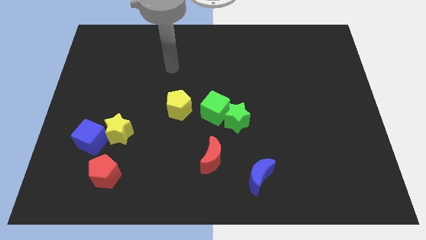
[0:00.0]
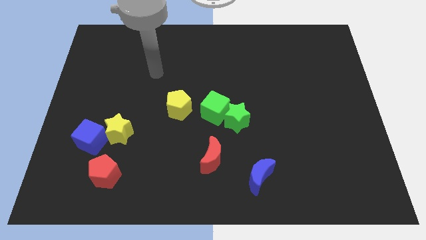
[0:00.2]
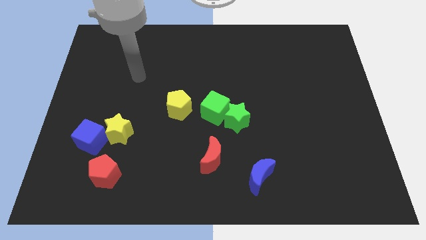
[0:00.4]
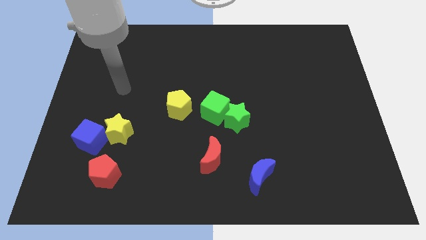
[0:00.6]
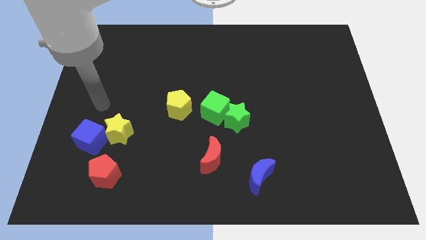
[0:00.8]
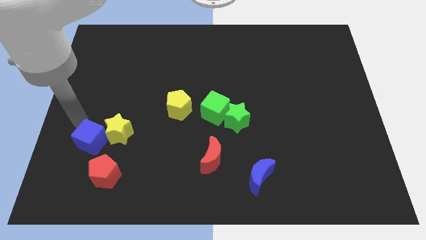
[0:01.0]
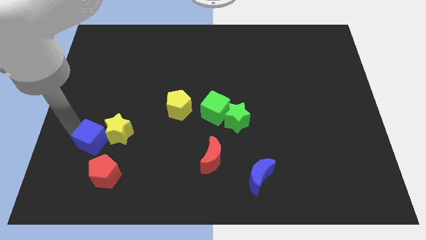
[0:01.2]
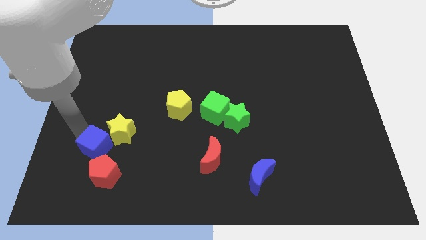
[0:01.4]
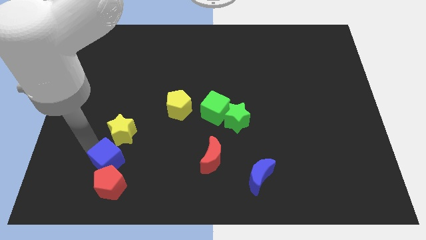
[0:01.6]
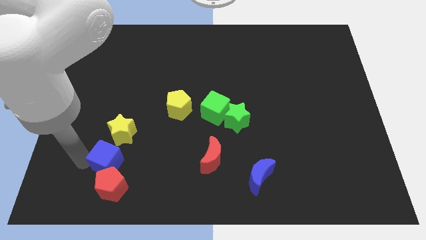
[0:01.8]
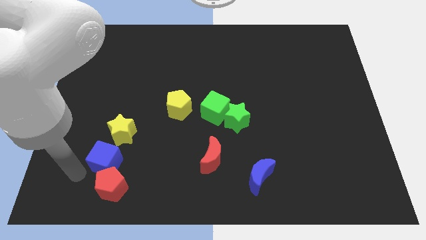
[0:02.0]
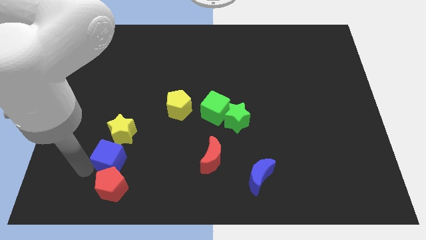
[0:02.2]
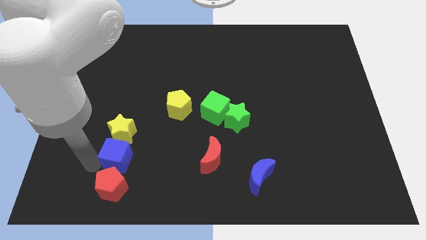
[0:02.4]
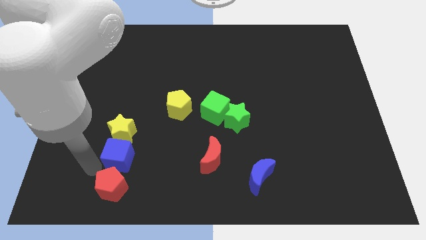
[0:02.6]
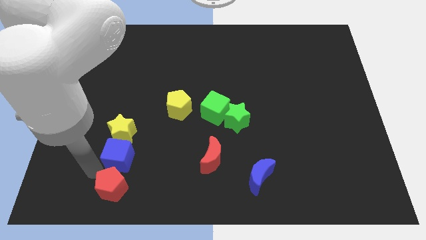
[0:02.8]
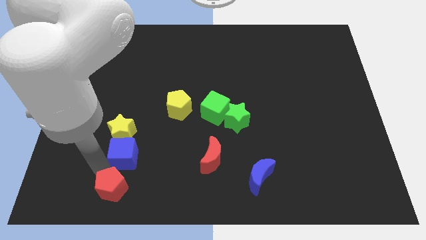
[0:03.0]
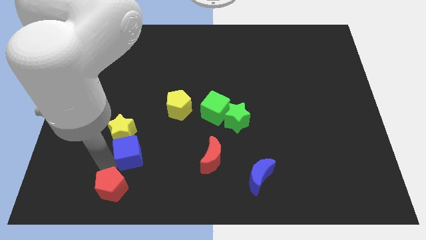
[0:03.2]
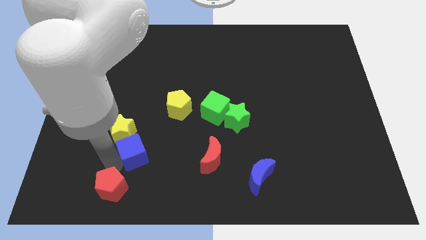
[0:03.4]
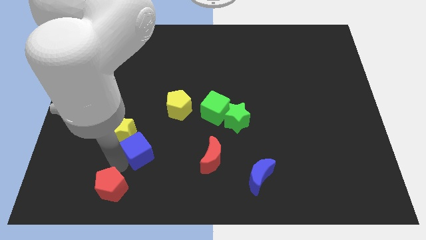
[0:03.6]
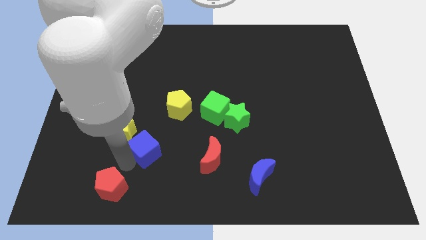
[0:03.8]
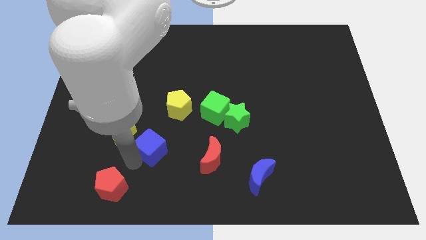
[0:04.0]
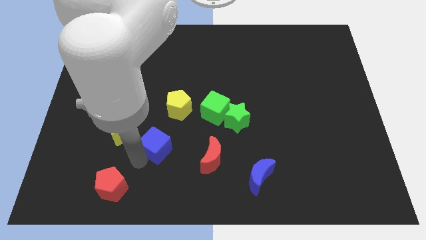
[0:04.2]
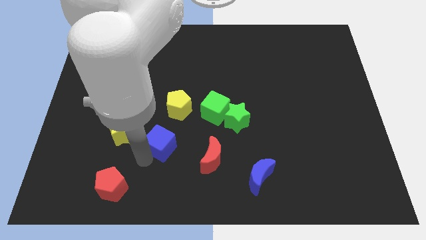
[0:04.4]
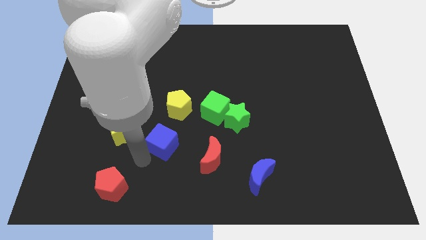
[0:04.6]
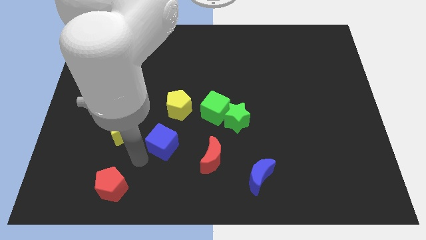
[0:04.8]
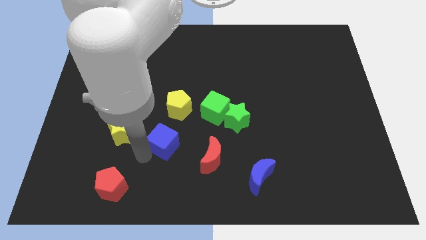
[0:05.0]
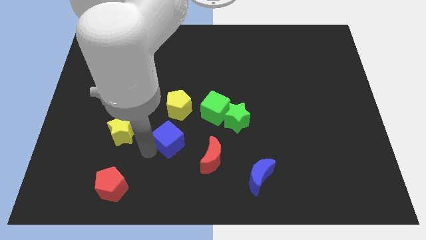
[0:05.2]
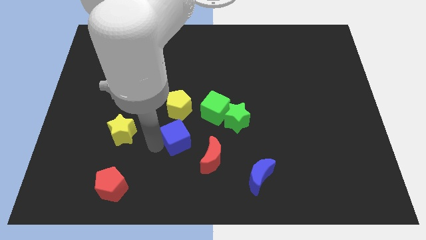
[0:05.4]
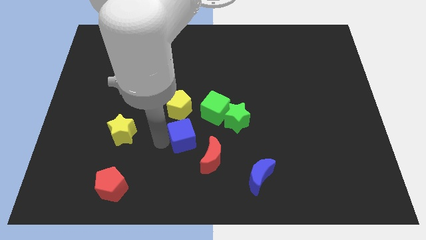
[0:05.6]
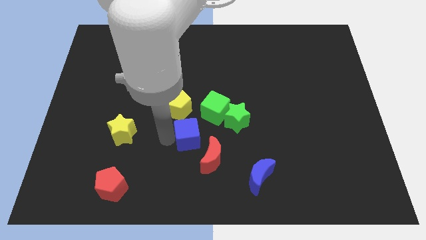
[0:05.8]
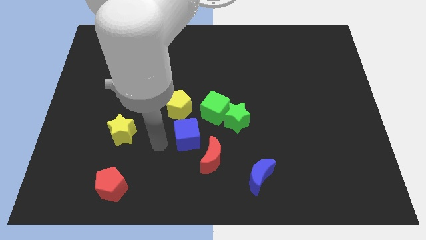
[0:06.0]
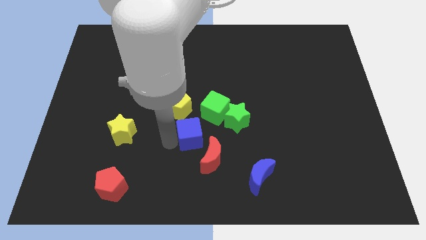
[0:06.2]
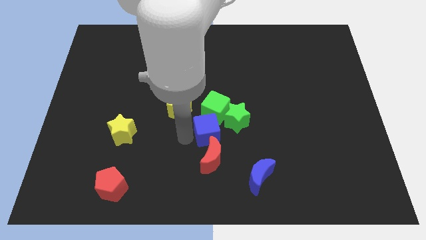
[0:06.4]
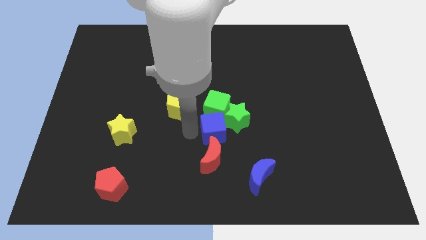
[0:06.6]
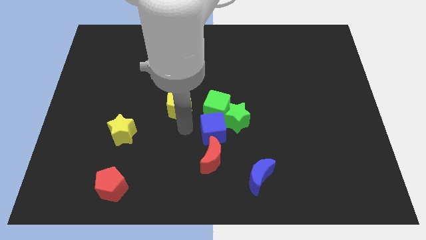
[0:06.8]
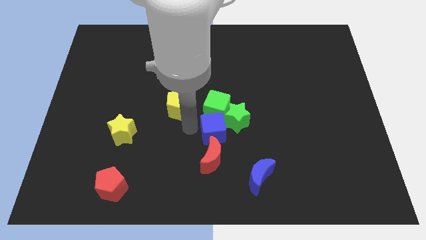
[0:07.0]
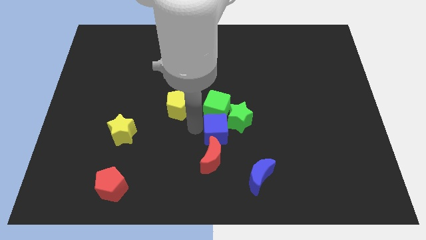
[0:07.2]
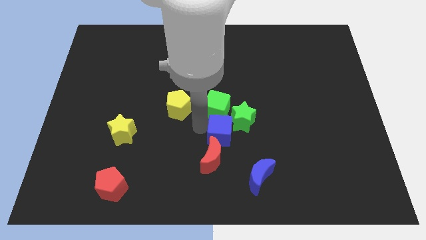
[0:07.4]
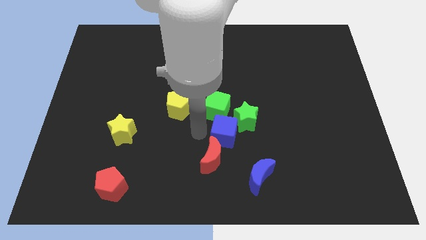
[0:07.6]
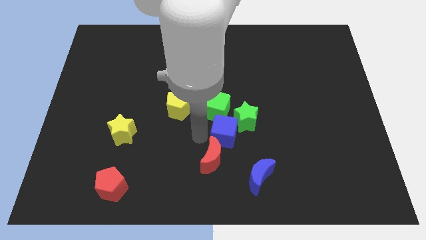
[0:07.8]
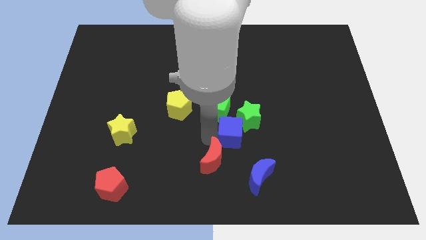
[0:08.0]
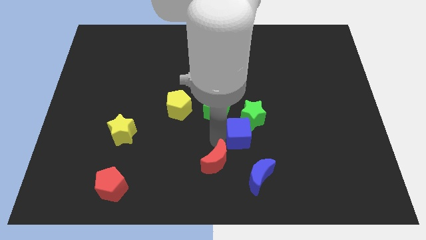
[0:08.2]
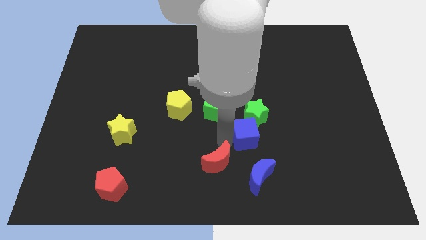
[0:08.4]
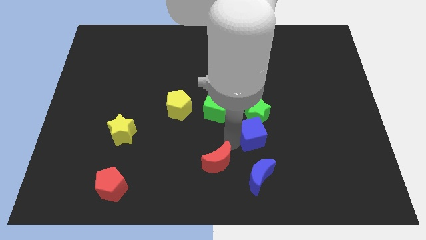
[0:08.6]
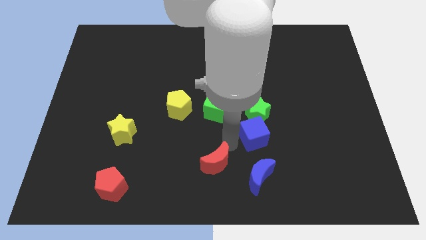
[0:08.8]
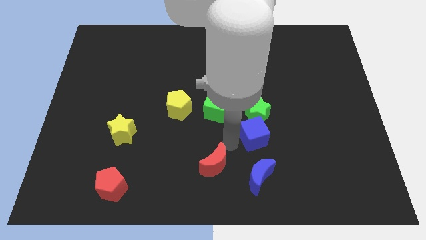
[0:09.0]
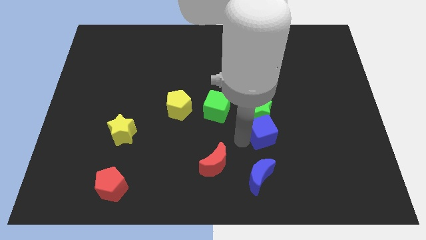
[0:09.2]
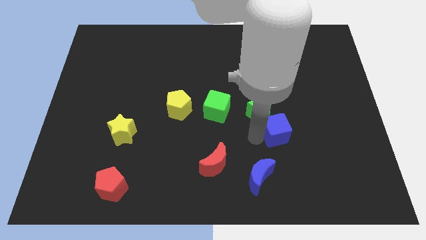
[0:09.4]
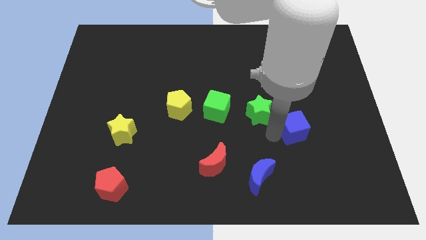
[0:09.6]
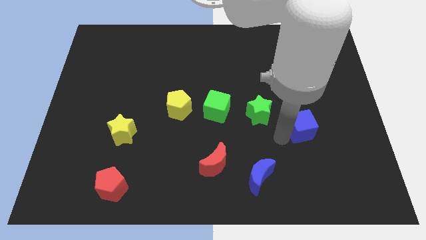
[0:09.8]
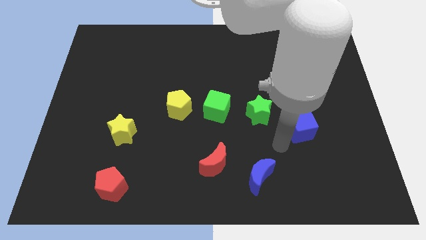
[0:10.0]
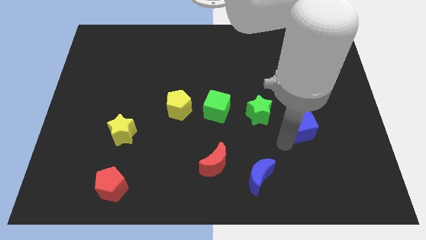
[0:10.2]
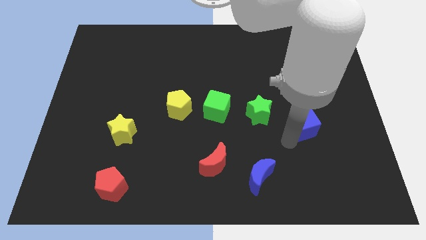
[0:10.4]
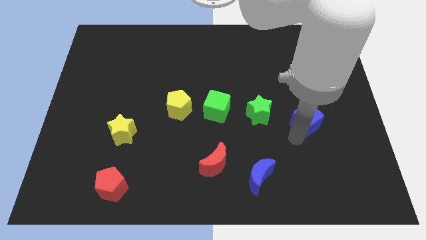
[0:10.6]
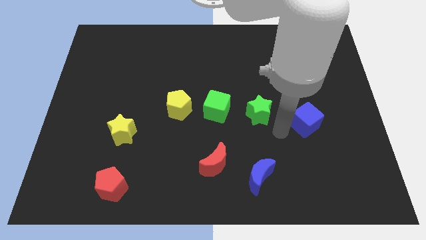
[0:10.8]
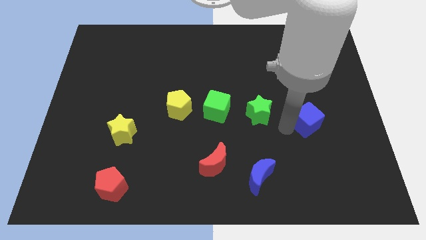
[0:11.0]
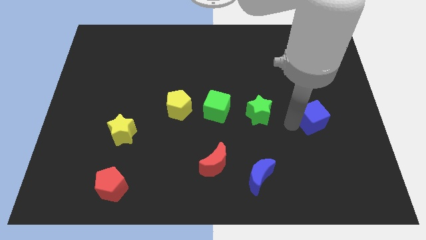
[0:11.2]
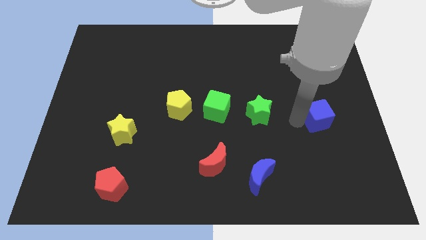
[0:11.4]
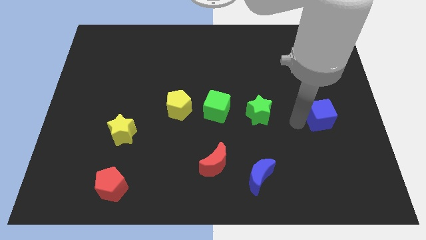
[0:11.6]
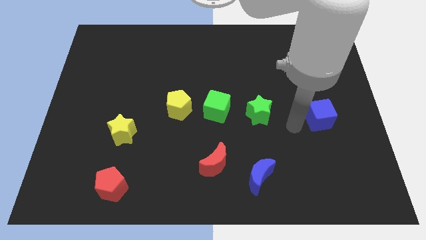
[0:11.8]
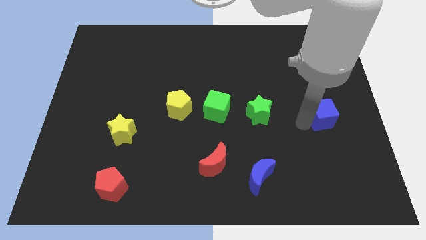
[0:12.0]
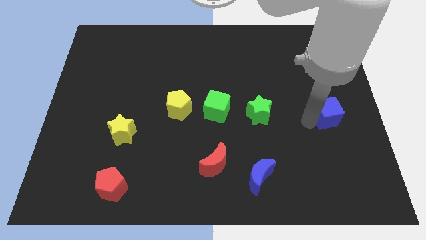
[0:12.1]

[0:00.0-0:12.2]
slide the blue cube to the center right

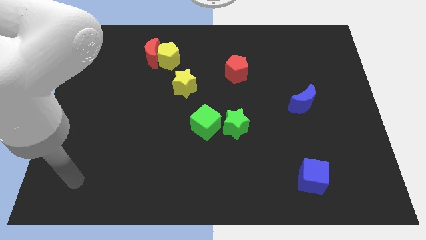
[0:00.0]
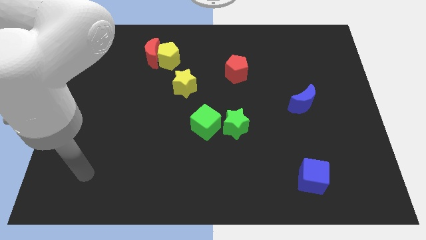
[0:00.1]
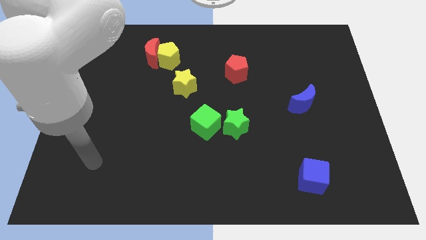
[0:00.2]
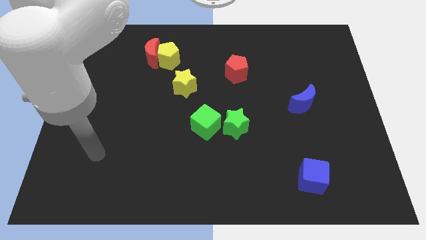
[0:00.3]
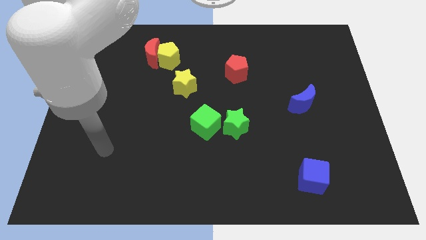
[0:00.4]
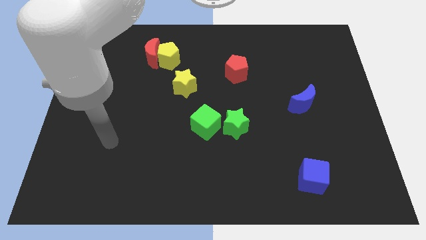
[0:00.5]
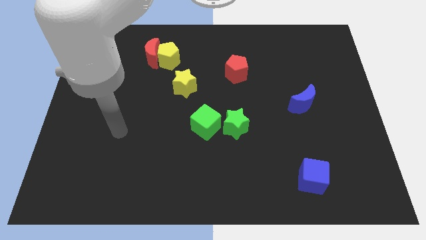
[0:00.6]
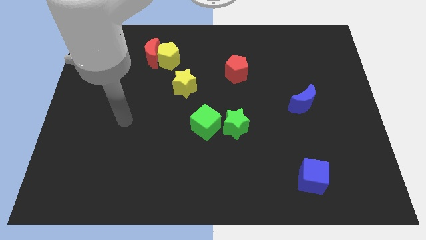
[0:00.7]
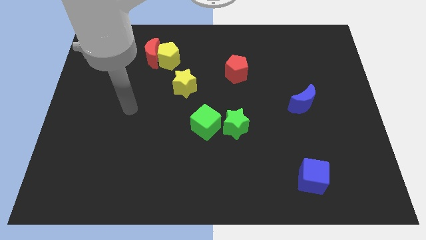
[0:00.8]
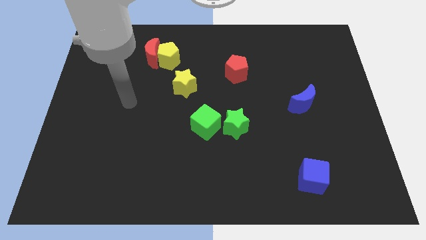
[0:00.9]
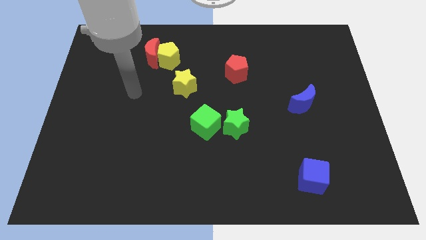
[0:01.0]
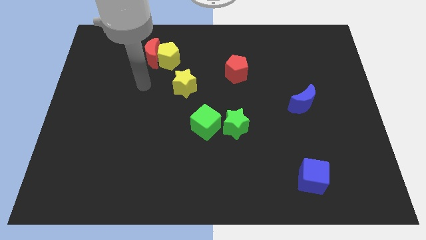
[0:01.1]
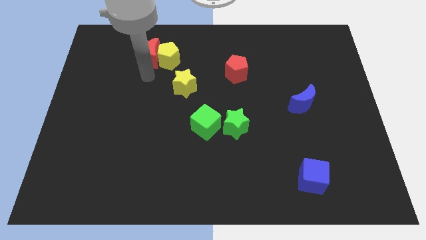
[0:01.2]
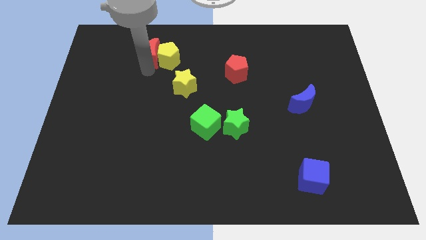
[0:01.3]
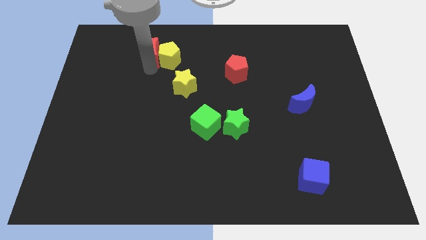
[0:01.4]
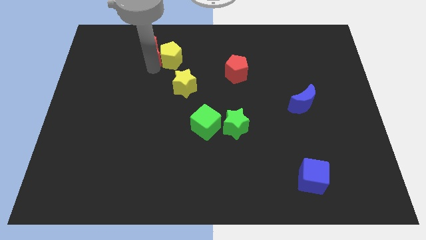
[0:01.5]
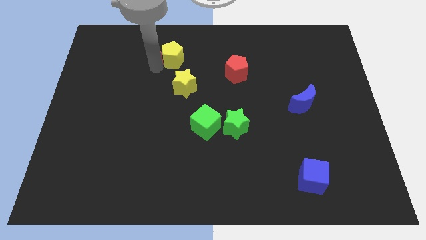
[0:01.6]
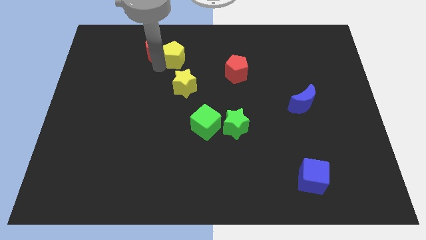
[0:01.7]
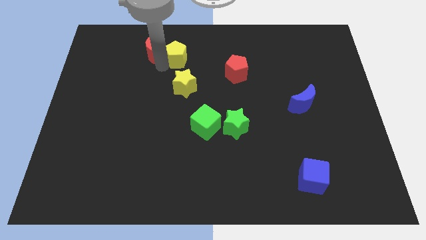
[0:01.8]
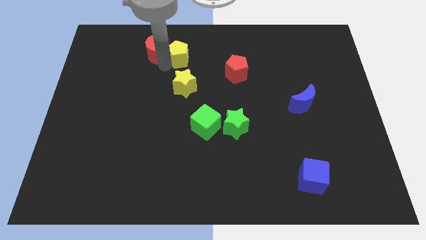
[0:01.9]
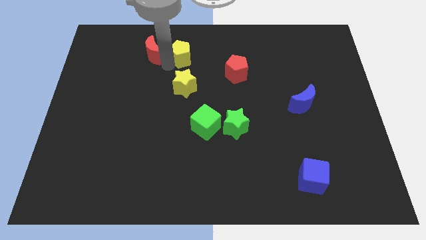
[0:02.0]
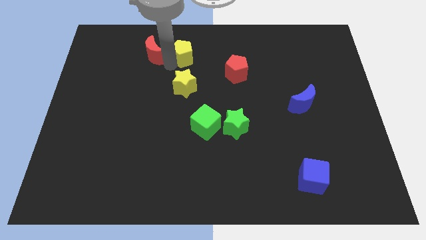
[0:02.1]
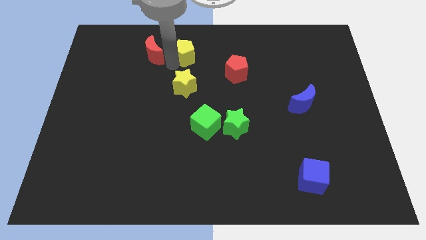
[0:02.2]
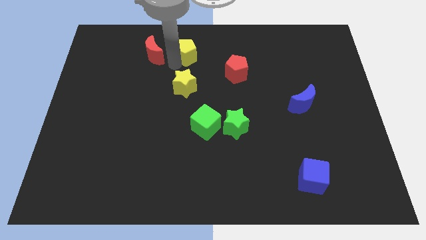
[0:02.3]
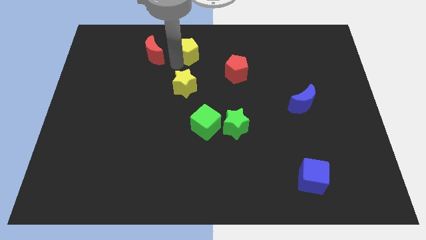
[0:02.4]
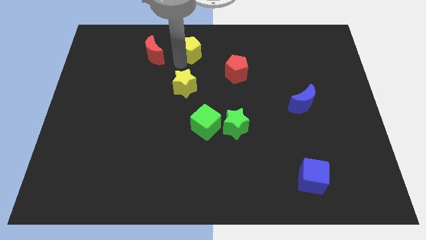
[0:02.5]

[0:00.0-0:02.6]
move the yellow pentagon to the top
